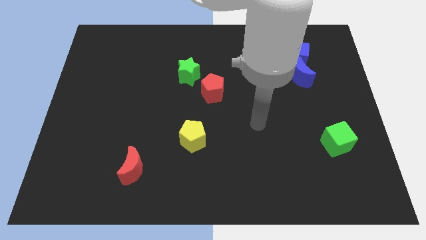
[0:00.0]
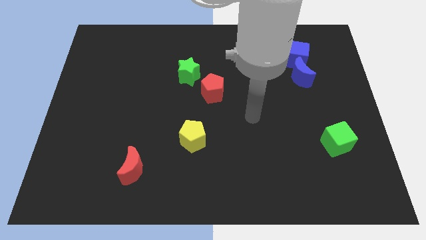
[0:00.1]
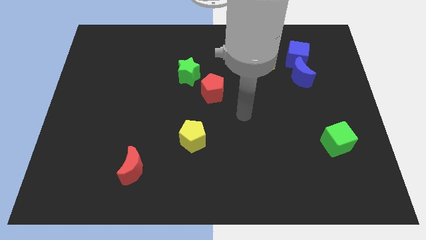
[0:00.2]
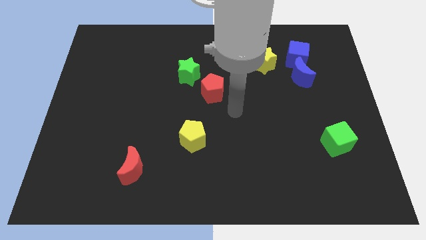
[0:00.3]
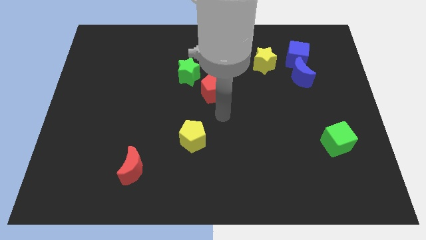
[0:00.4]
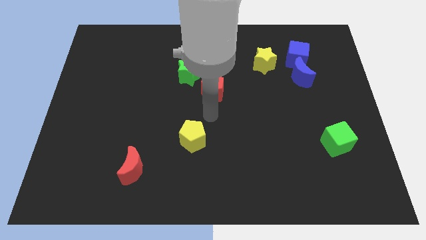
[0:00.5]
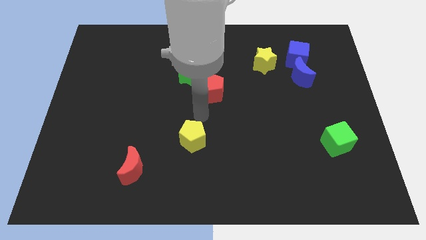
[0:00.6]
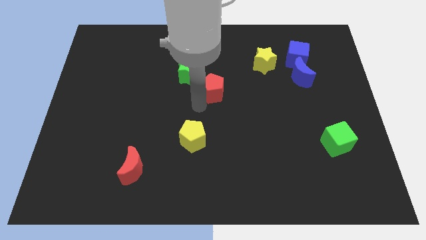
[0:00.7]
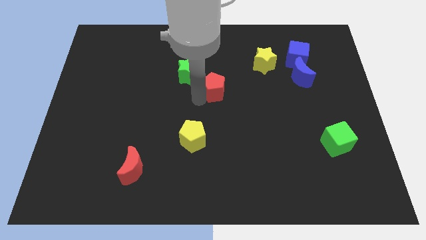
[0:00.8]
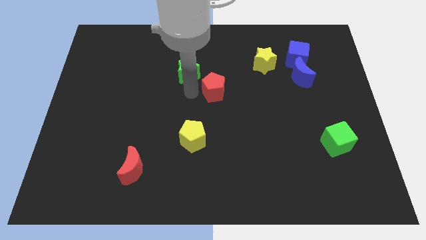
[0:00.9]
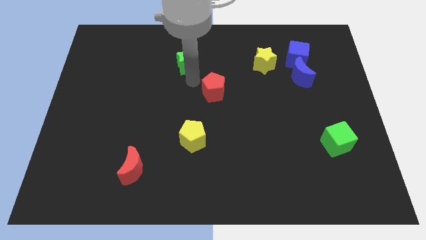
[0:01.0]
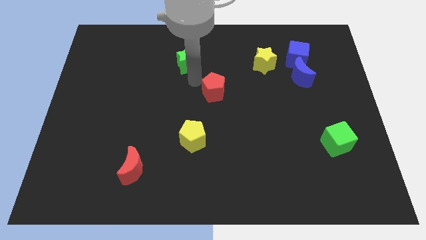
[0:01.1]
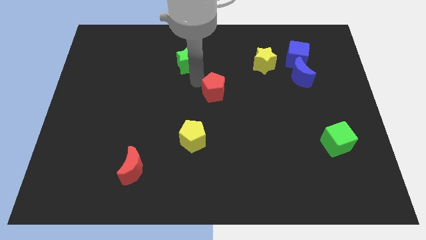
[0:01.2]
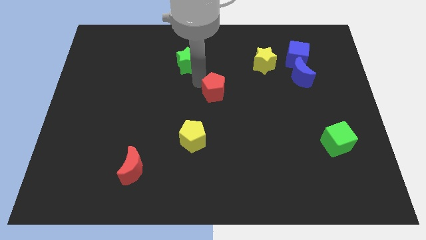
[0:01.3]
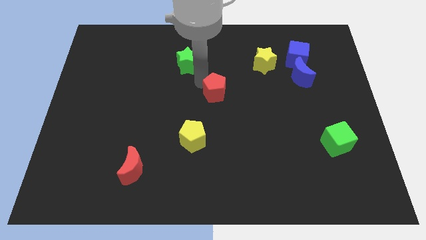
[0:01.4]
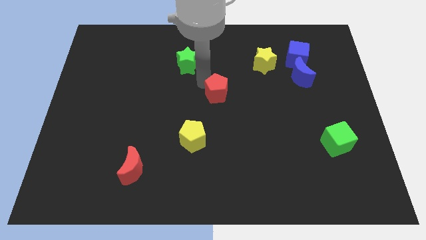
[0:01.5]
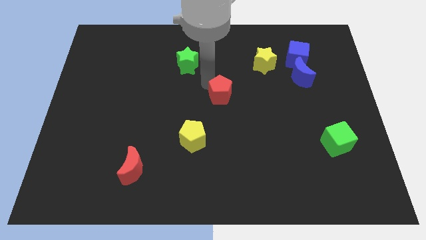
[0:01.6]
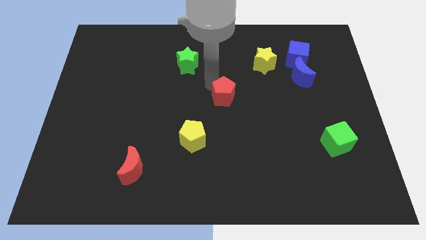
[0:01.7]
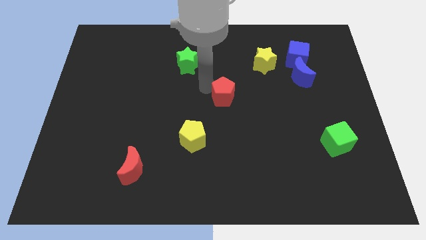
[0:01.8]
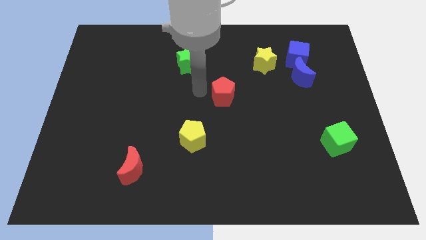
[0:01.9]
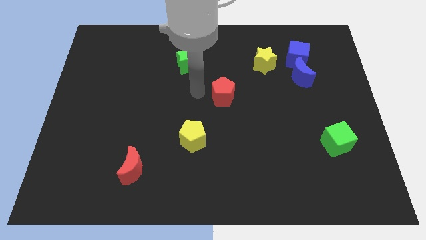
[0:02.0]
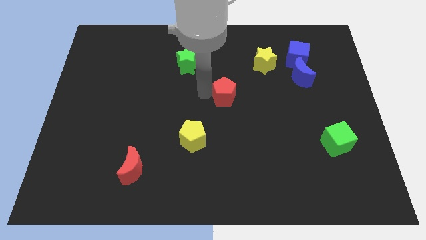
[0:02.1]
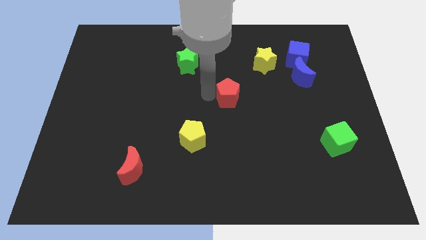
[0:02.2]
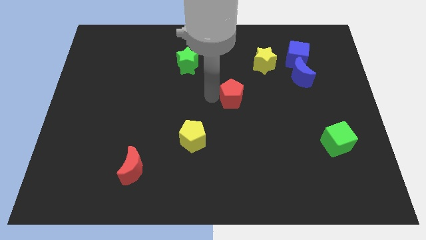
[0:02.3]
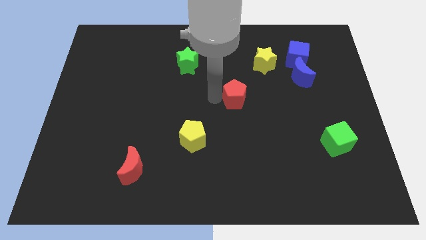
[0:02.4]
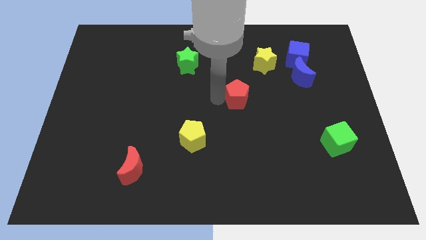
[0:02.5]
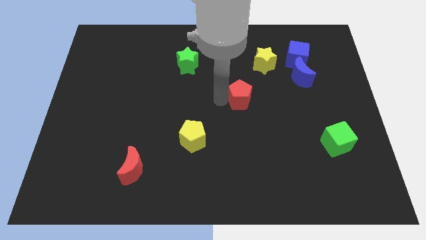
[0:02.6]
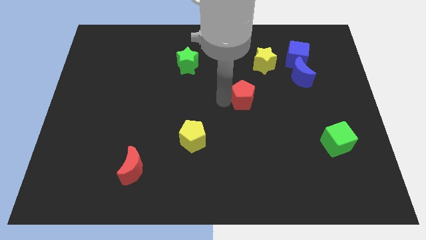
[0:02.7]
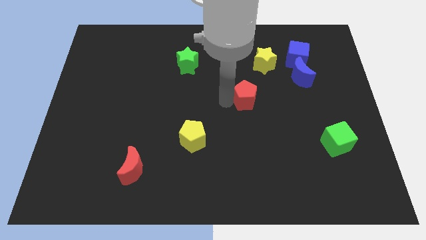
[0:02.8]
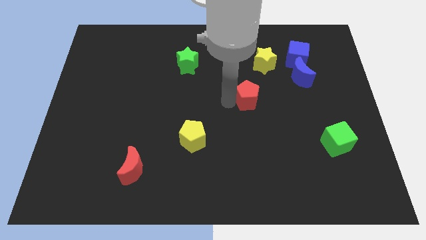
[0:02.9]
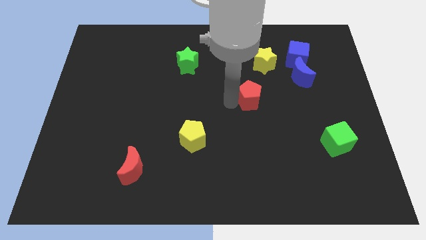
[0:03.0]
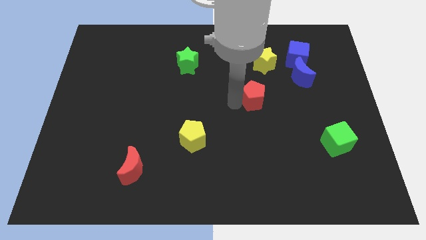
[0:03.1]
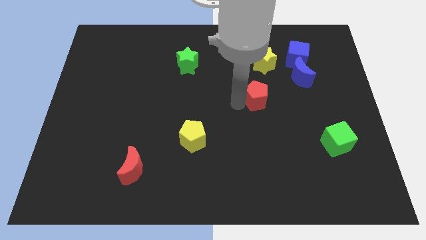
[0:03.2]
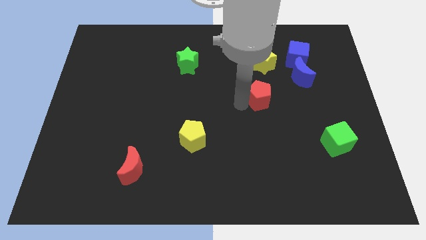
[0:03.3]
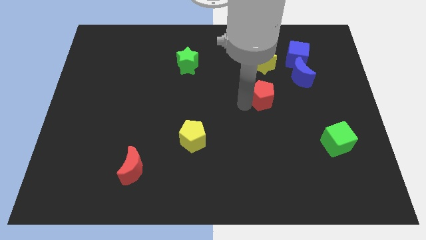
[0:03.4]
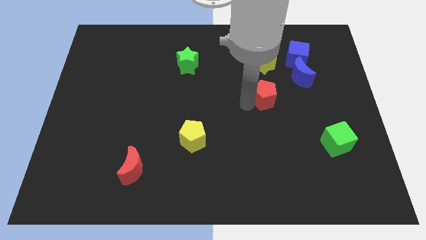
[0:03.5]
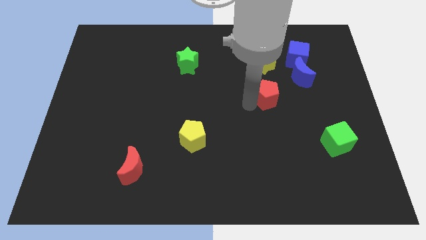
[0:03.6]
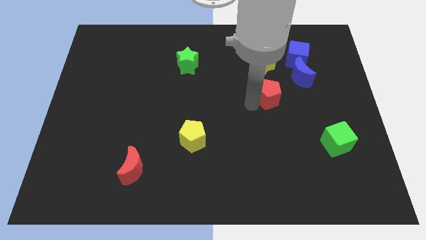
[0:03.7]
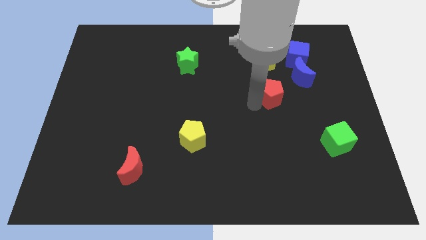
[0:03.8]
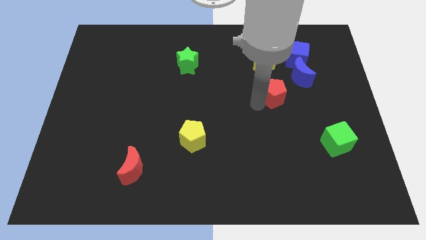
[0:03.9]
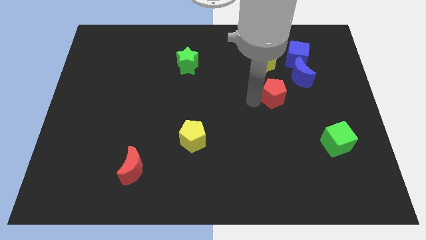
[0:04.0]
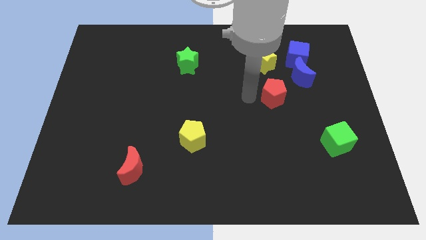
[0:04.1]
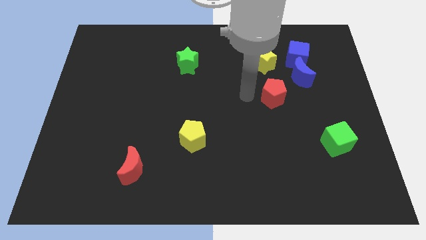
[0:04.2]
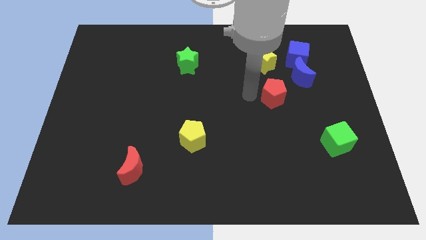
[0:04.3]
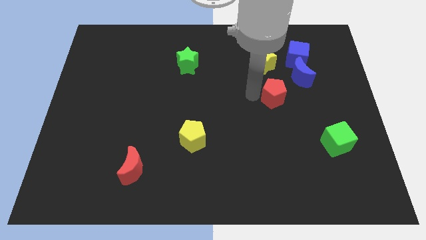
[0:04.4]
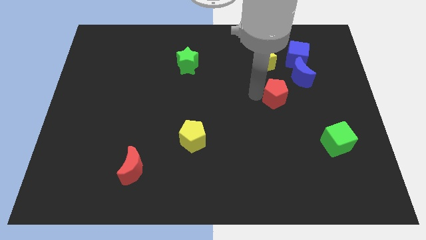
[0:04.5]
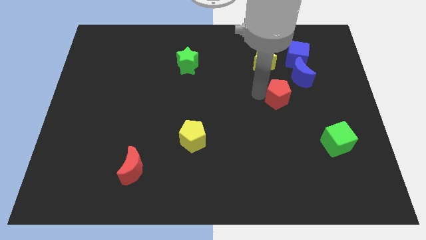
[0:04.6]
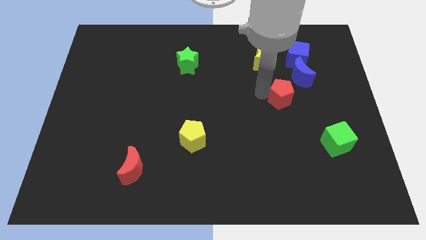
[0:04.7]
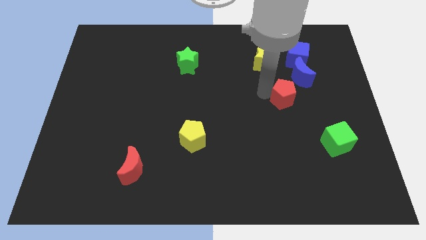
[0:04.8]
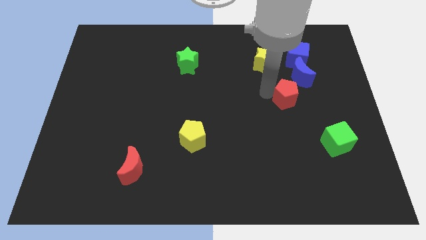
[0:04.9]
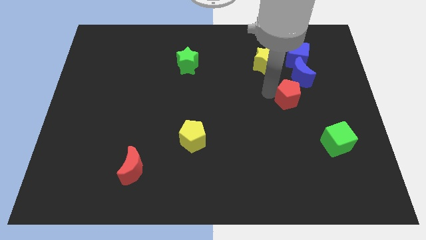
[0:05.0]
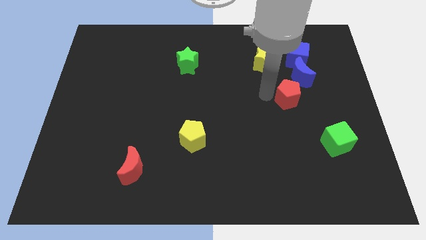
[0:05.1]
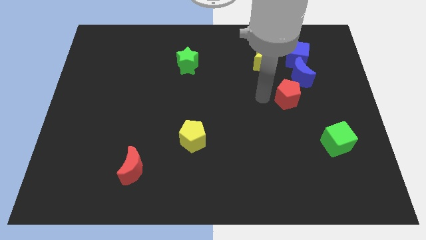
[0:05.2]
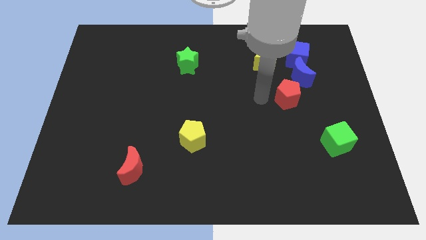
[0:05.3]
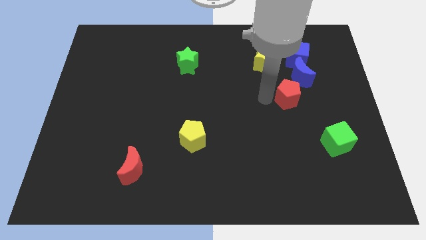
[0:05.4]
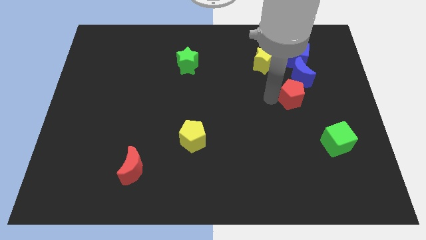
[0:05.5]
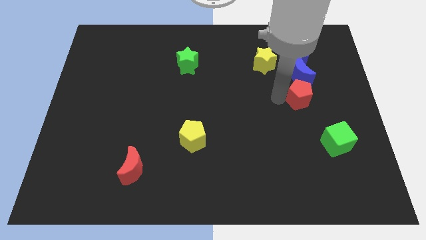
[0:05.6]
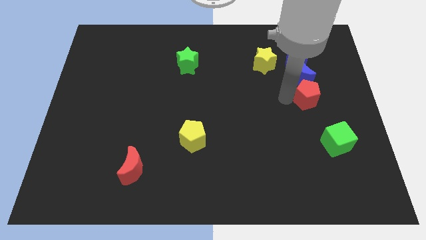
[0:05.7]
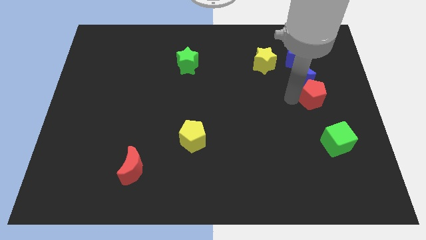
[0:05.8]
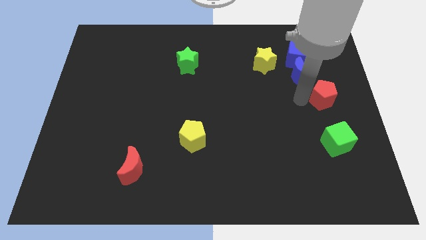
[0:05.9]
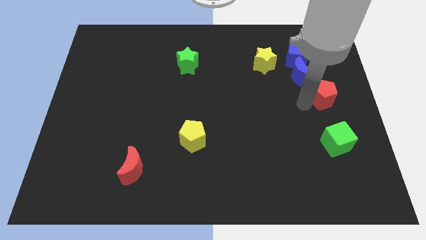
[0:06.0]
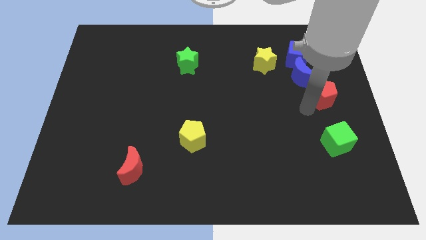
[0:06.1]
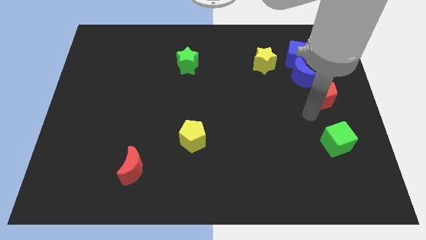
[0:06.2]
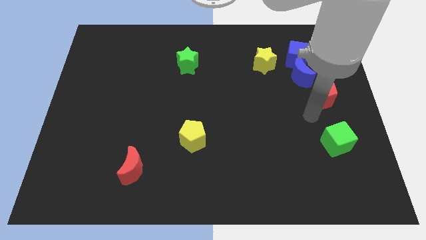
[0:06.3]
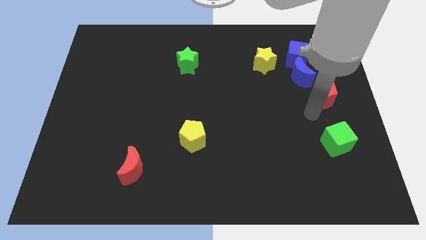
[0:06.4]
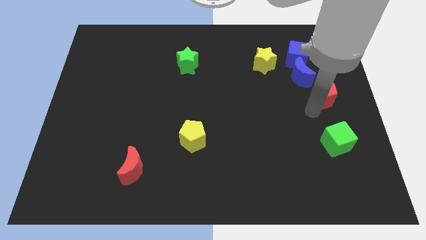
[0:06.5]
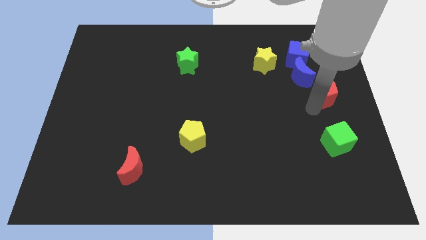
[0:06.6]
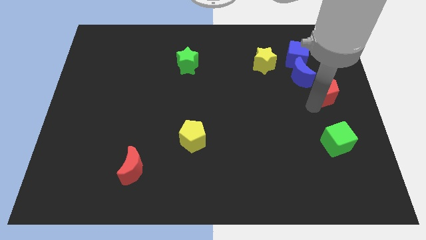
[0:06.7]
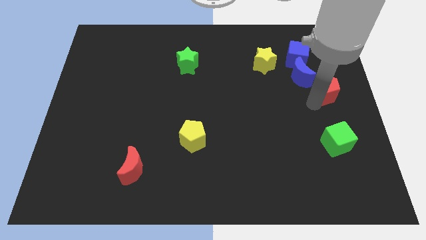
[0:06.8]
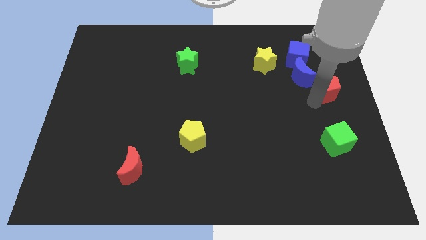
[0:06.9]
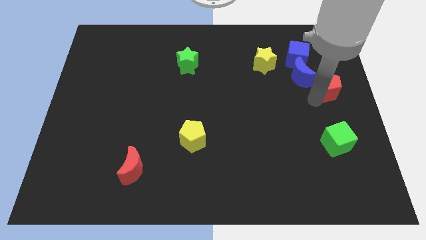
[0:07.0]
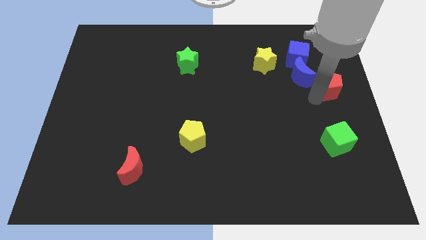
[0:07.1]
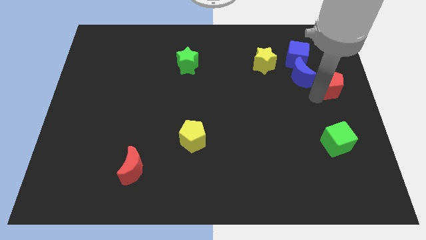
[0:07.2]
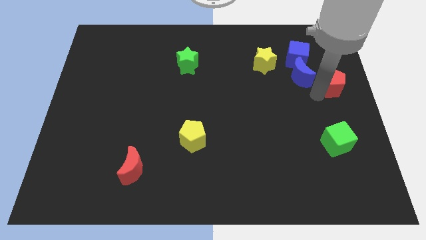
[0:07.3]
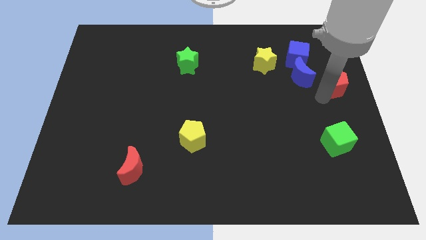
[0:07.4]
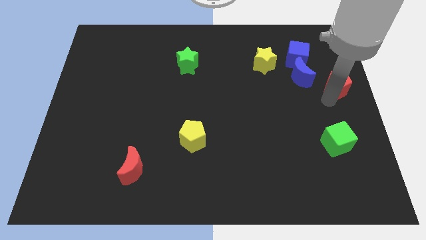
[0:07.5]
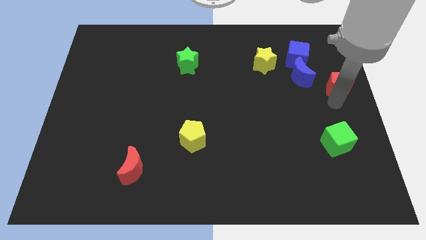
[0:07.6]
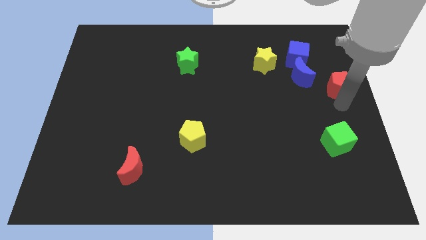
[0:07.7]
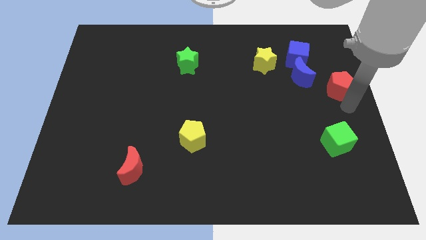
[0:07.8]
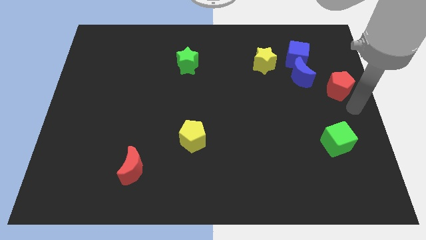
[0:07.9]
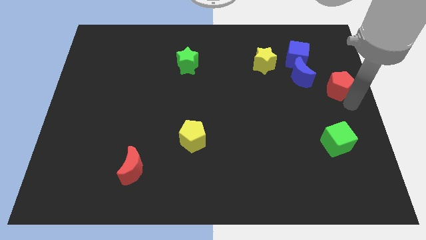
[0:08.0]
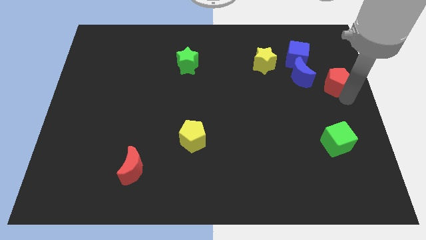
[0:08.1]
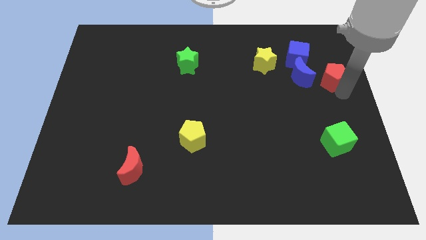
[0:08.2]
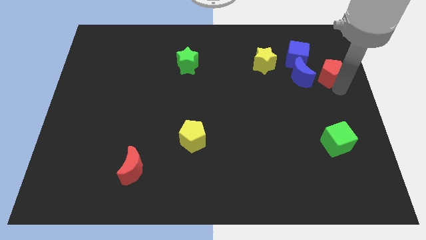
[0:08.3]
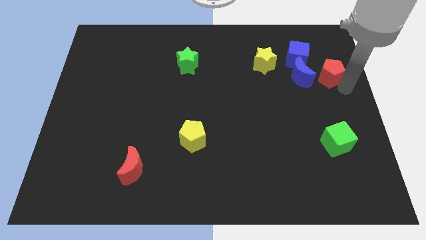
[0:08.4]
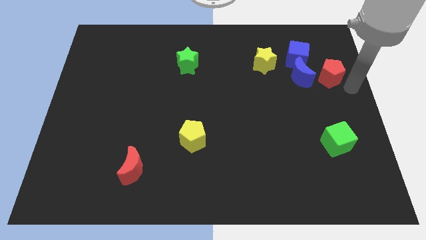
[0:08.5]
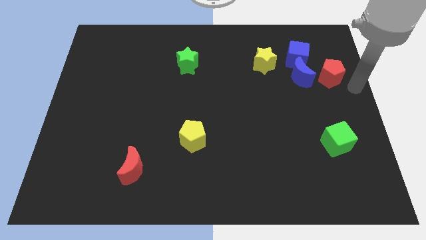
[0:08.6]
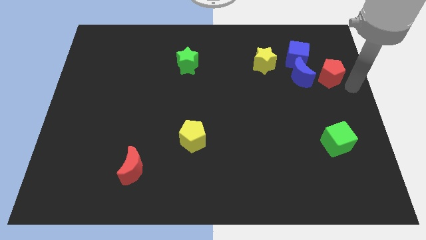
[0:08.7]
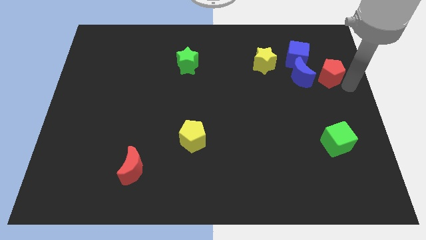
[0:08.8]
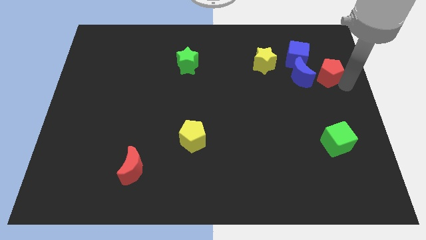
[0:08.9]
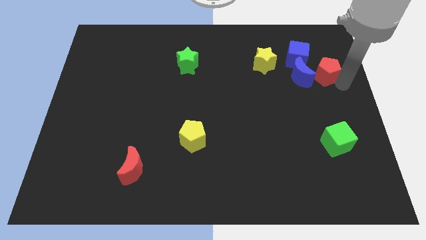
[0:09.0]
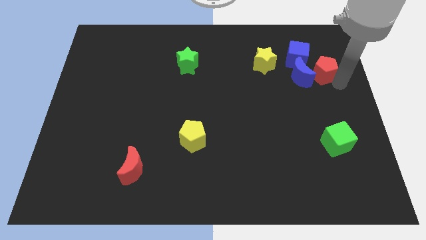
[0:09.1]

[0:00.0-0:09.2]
put the red pentagon to the right side of the yellow star
